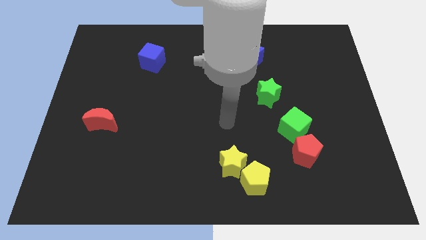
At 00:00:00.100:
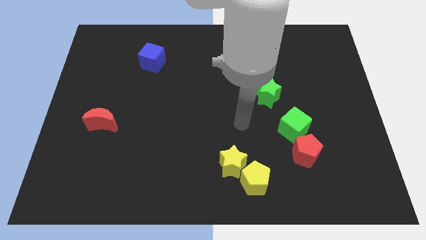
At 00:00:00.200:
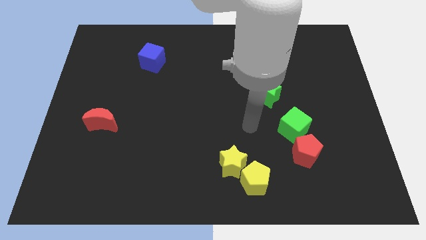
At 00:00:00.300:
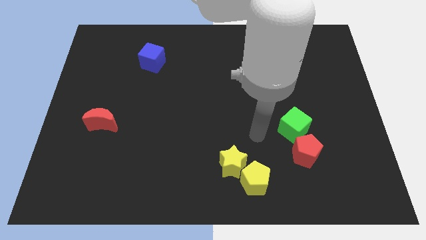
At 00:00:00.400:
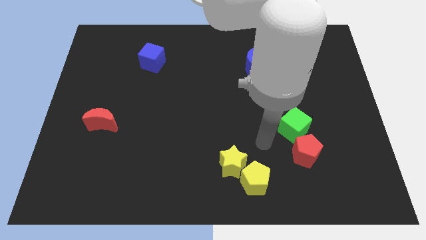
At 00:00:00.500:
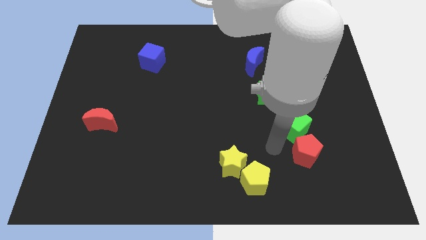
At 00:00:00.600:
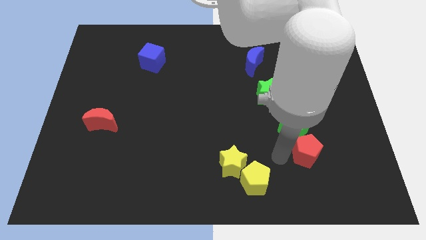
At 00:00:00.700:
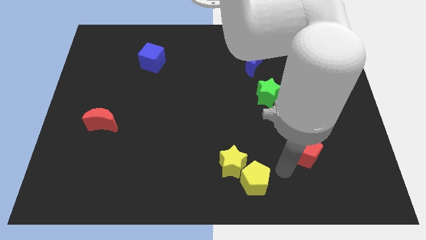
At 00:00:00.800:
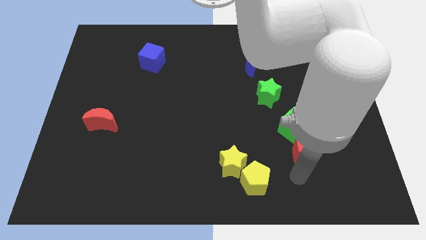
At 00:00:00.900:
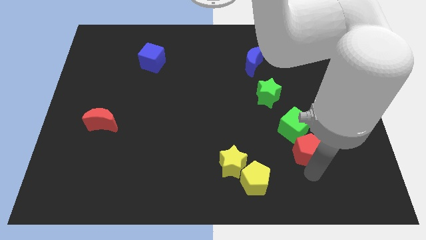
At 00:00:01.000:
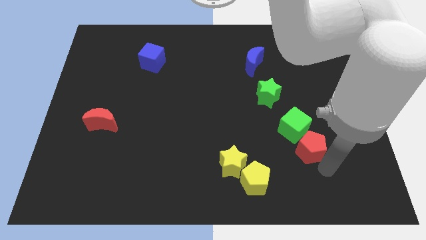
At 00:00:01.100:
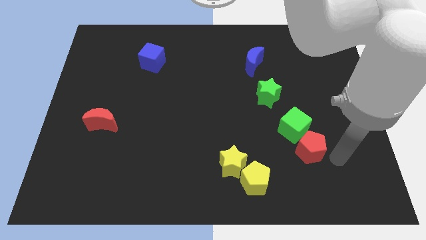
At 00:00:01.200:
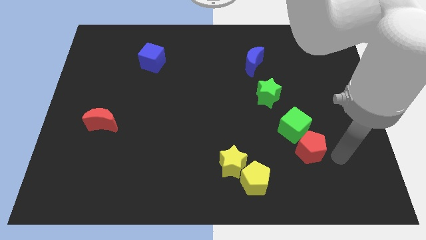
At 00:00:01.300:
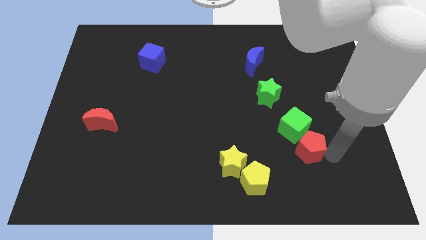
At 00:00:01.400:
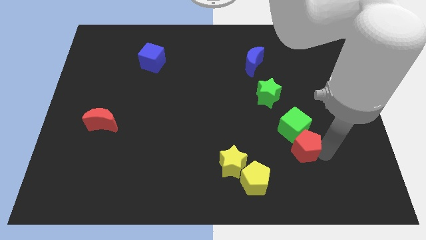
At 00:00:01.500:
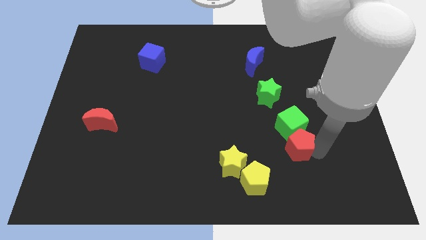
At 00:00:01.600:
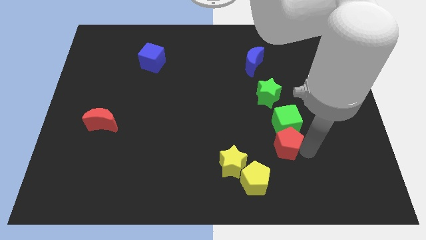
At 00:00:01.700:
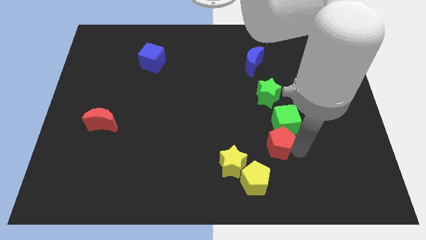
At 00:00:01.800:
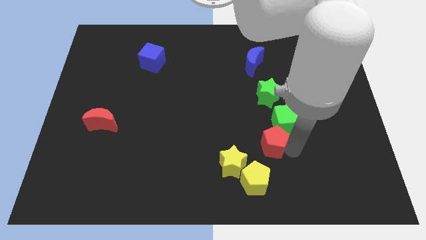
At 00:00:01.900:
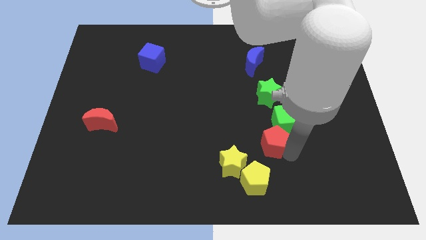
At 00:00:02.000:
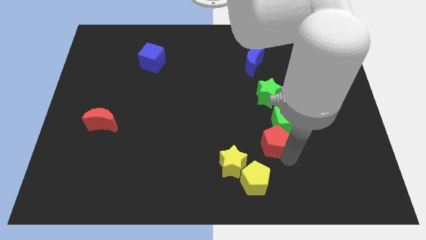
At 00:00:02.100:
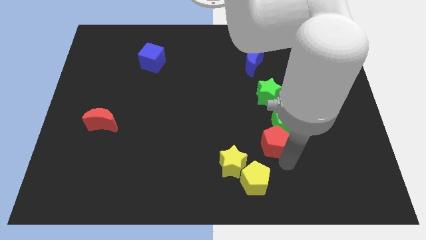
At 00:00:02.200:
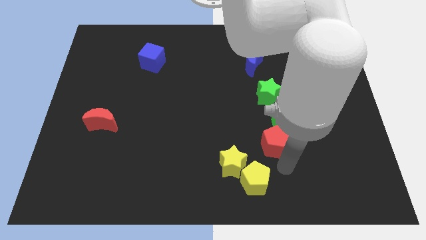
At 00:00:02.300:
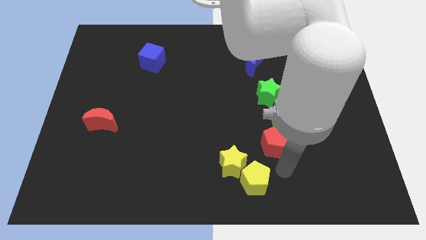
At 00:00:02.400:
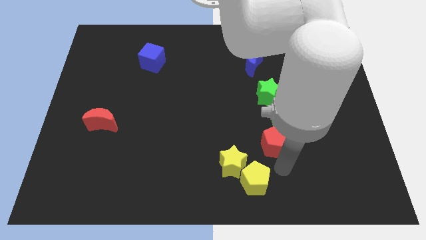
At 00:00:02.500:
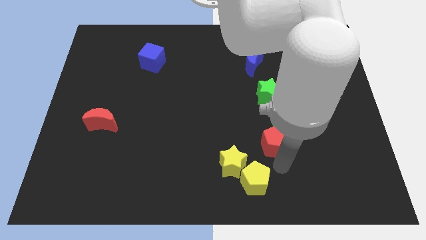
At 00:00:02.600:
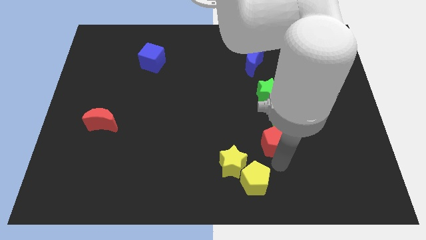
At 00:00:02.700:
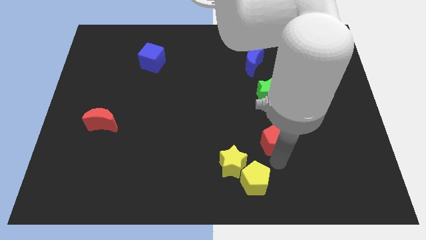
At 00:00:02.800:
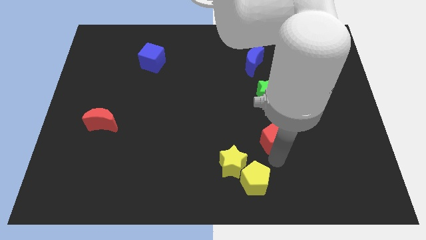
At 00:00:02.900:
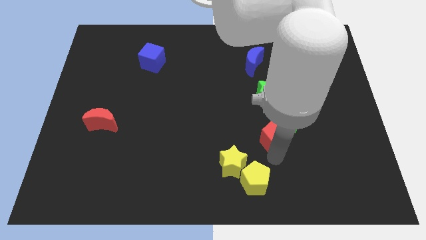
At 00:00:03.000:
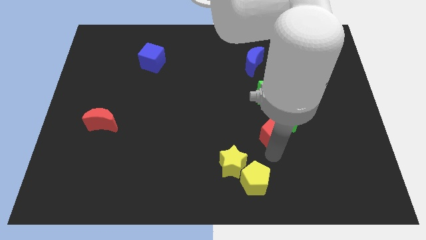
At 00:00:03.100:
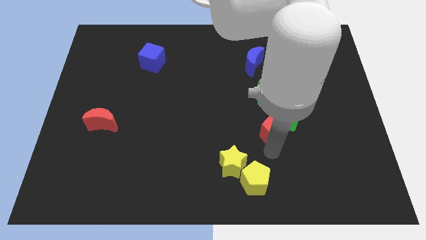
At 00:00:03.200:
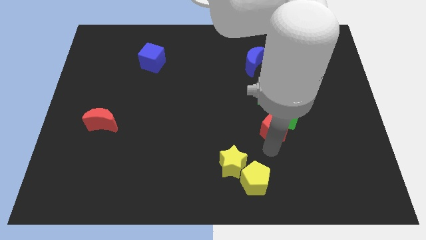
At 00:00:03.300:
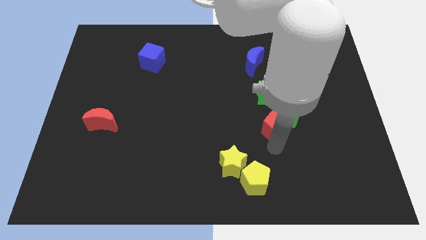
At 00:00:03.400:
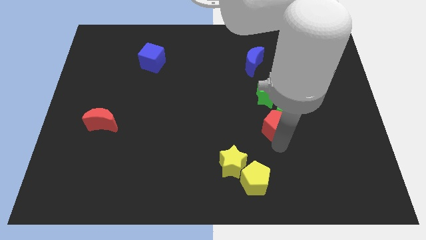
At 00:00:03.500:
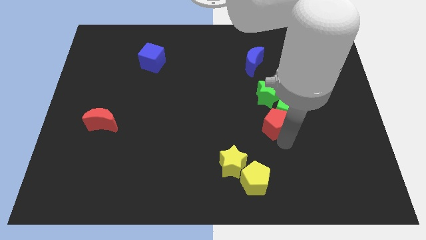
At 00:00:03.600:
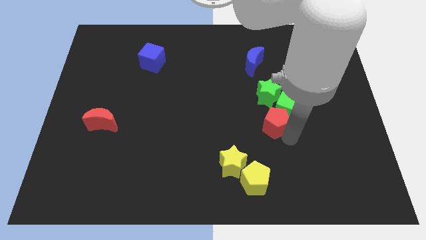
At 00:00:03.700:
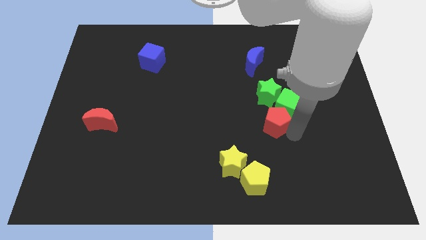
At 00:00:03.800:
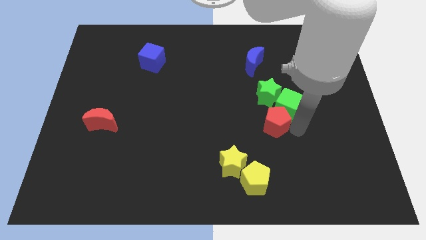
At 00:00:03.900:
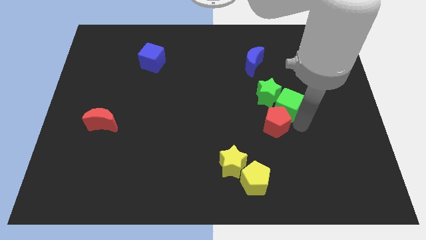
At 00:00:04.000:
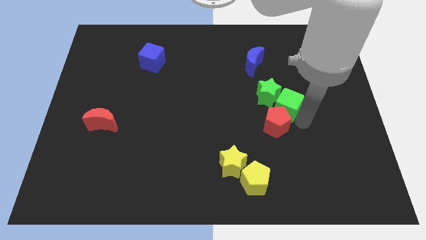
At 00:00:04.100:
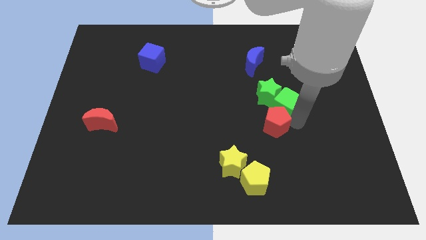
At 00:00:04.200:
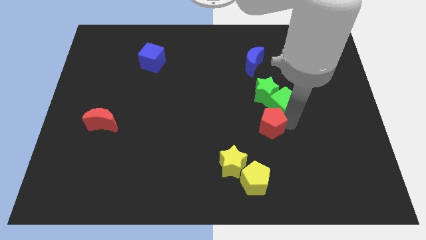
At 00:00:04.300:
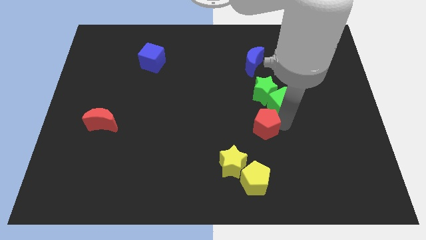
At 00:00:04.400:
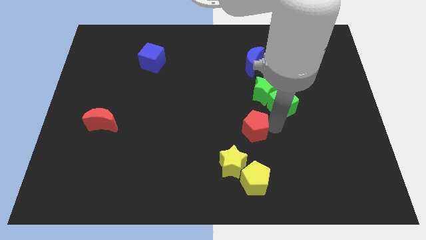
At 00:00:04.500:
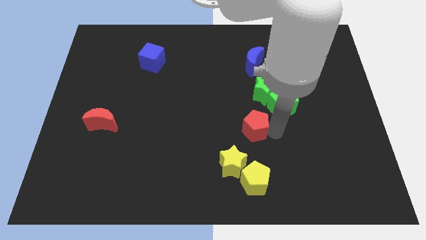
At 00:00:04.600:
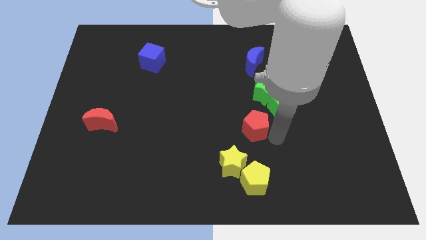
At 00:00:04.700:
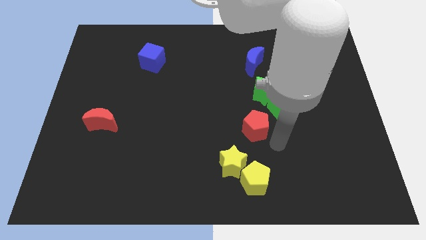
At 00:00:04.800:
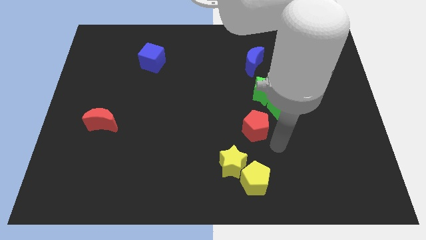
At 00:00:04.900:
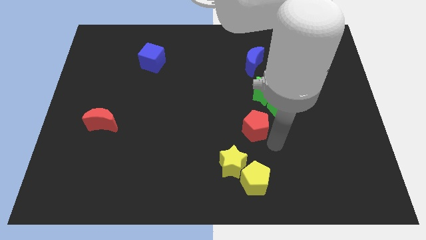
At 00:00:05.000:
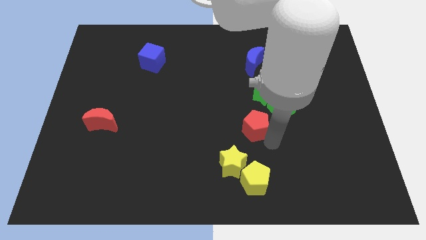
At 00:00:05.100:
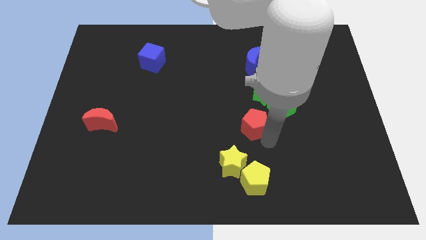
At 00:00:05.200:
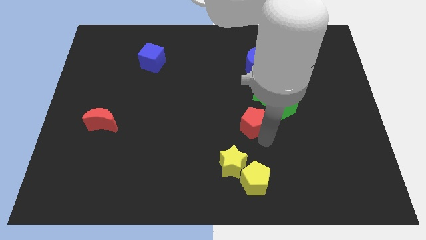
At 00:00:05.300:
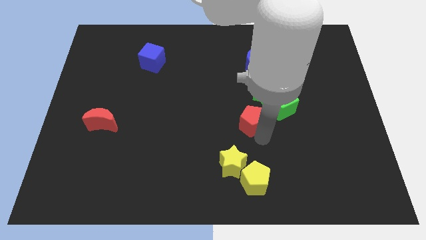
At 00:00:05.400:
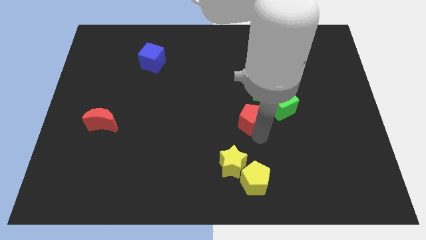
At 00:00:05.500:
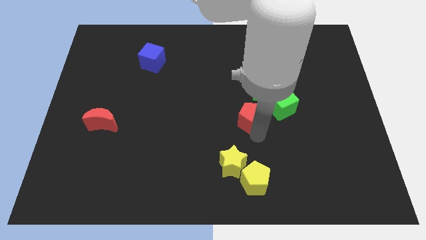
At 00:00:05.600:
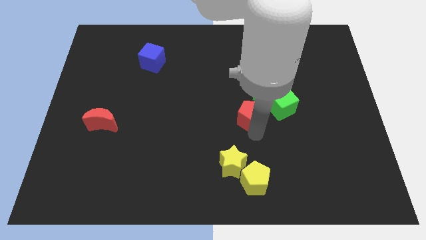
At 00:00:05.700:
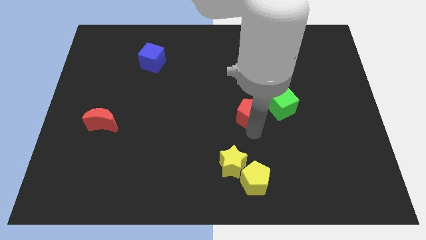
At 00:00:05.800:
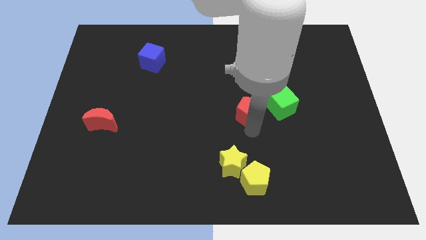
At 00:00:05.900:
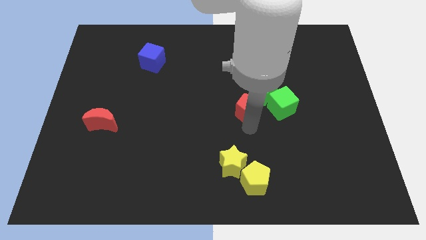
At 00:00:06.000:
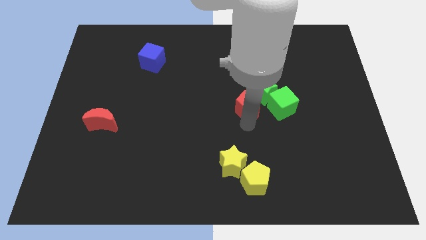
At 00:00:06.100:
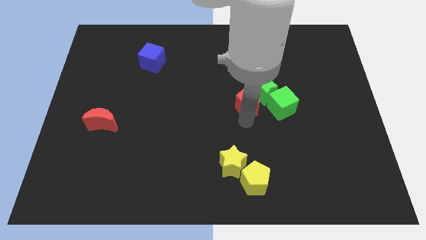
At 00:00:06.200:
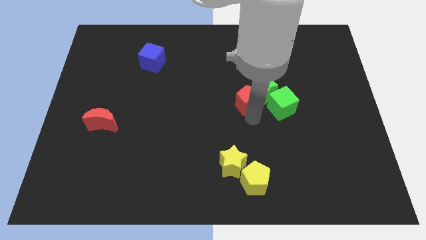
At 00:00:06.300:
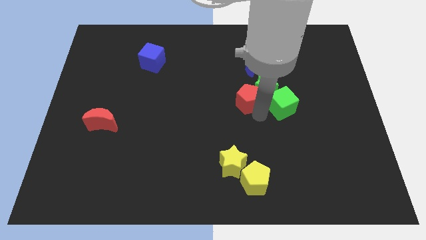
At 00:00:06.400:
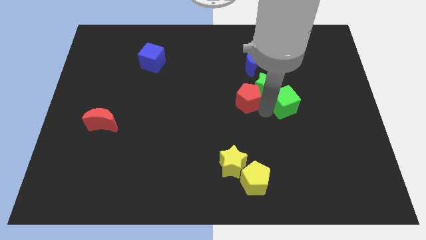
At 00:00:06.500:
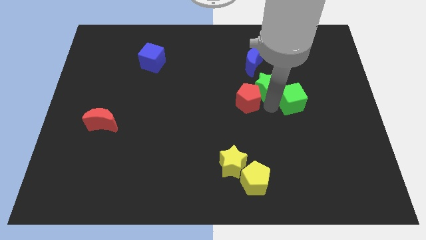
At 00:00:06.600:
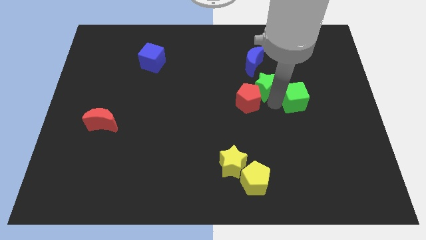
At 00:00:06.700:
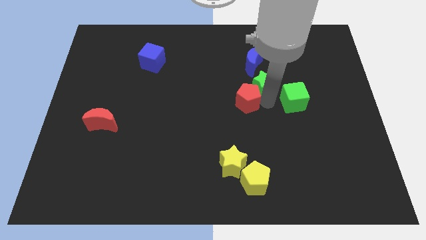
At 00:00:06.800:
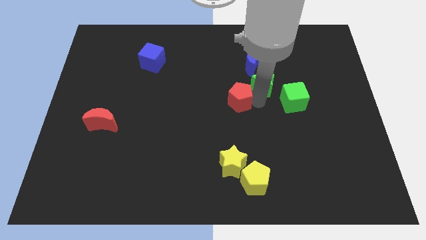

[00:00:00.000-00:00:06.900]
push the red pentagon diagonally upwards and left

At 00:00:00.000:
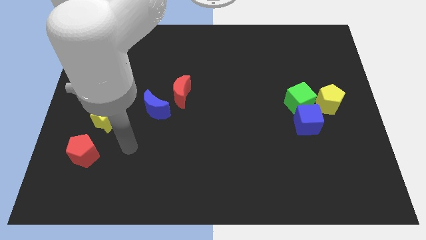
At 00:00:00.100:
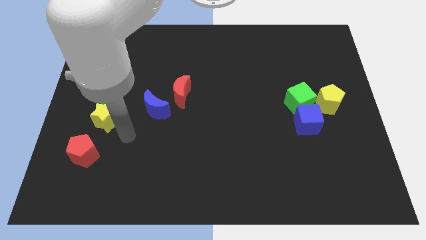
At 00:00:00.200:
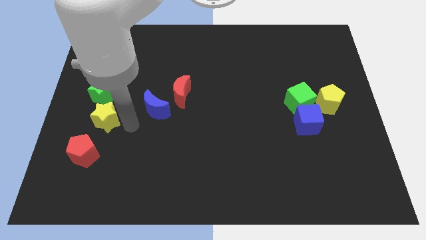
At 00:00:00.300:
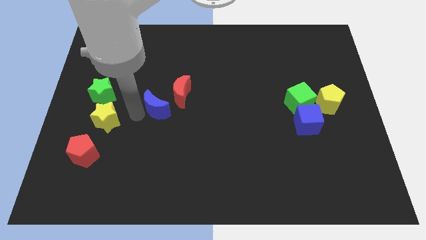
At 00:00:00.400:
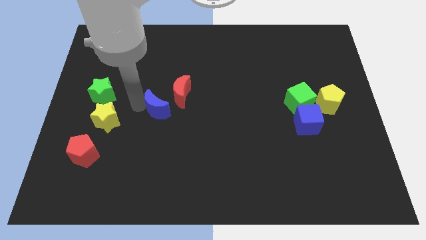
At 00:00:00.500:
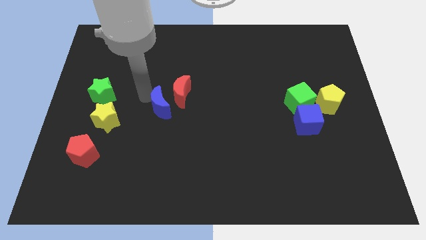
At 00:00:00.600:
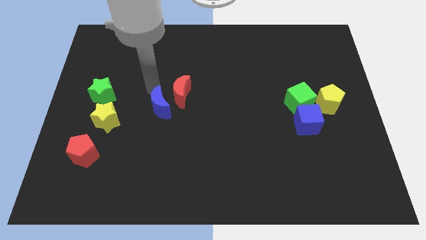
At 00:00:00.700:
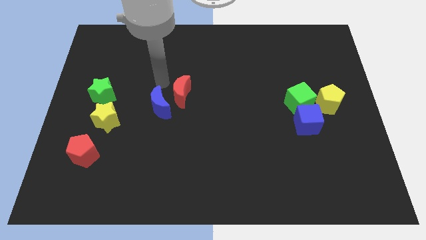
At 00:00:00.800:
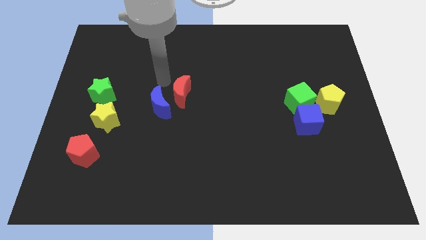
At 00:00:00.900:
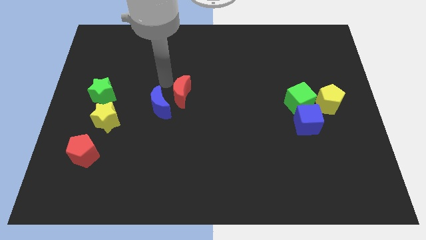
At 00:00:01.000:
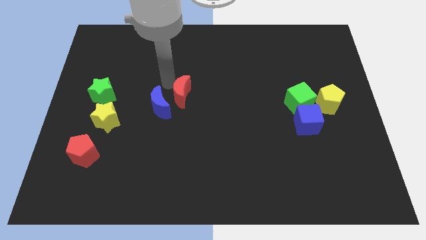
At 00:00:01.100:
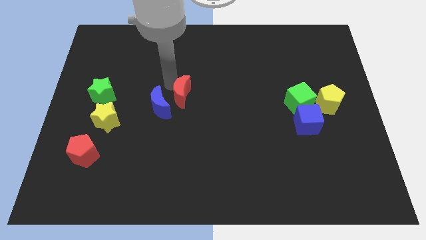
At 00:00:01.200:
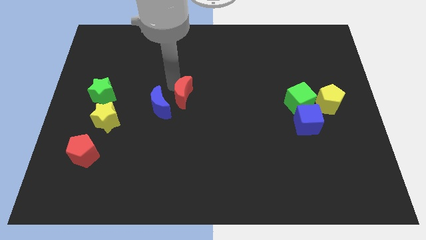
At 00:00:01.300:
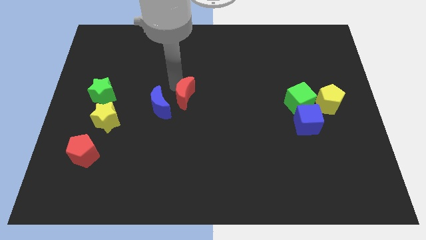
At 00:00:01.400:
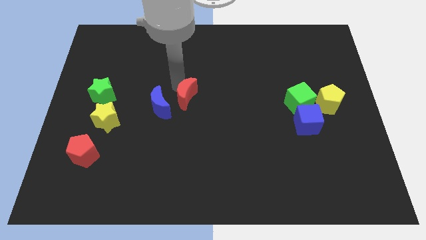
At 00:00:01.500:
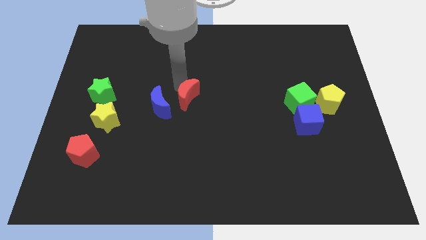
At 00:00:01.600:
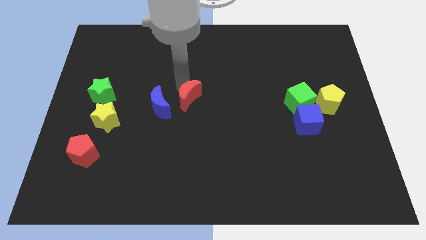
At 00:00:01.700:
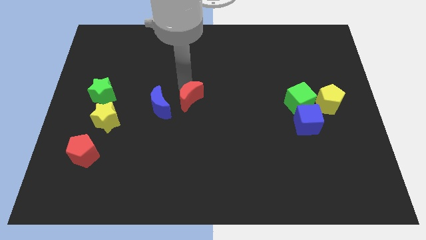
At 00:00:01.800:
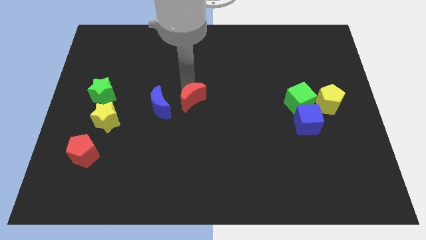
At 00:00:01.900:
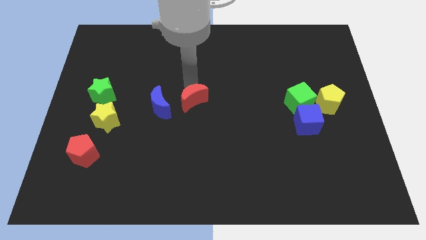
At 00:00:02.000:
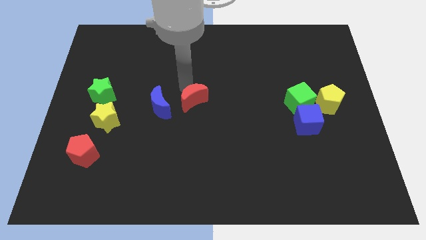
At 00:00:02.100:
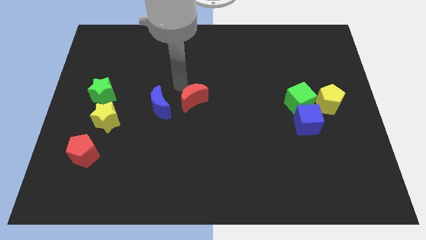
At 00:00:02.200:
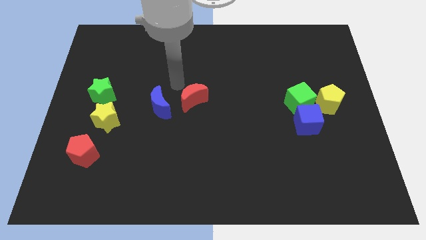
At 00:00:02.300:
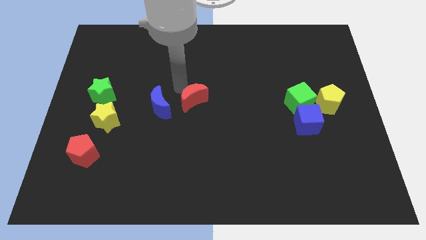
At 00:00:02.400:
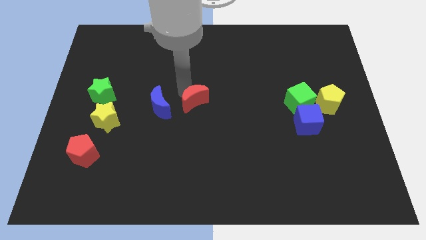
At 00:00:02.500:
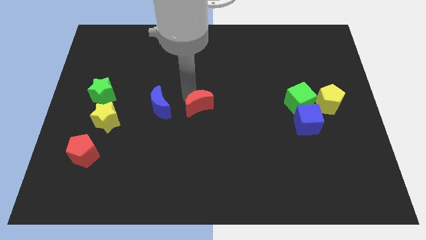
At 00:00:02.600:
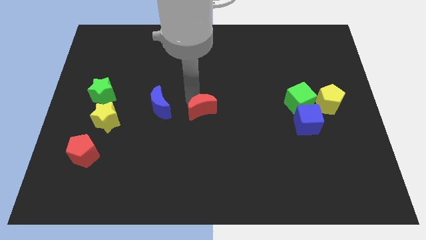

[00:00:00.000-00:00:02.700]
push the red moon slightly diagonally down and to the right
